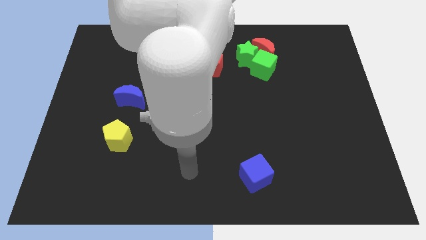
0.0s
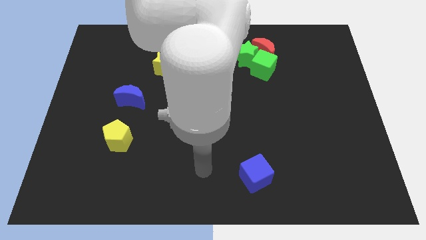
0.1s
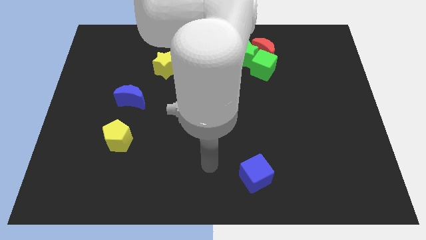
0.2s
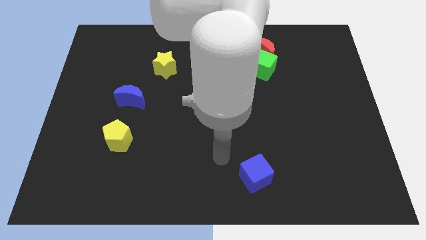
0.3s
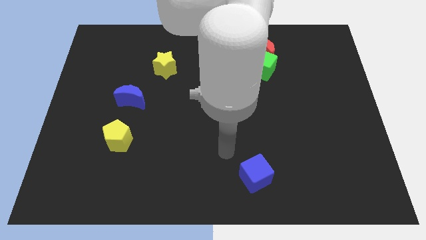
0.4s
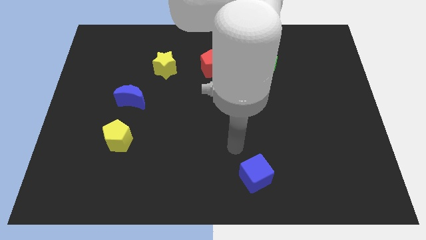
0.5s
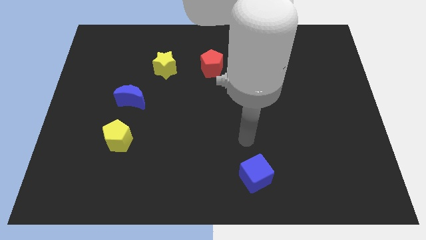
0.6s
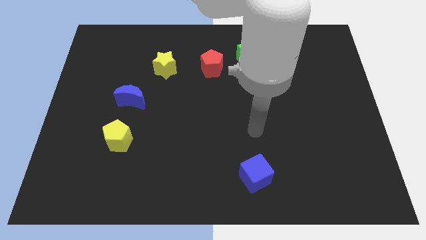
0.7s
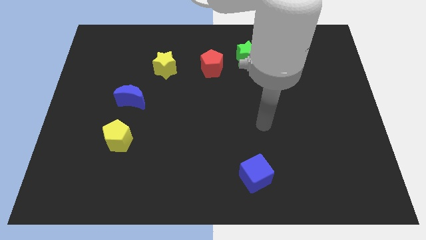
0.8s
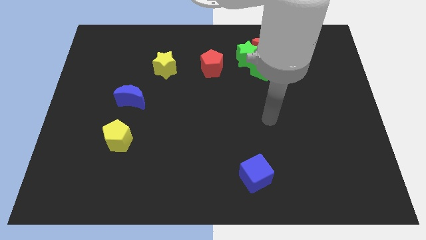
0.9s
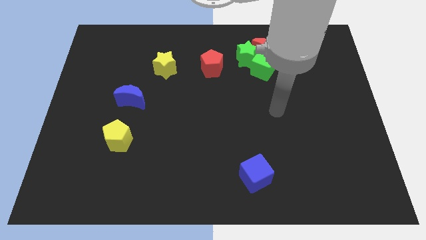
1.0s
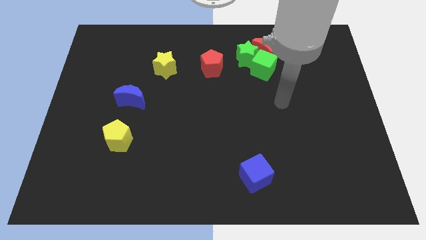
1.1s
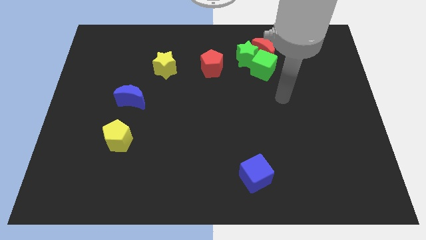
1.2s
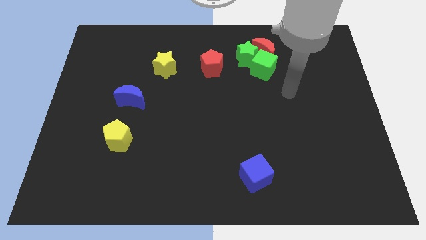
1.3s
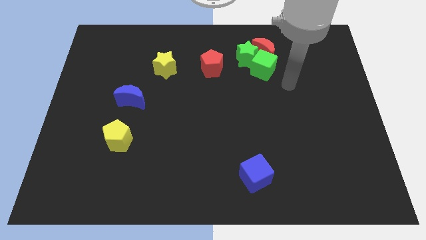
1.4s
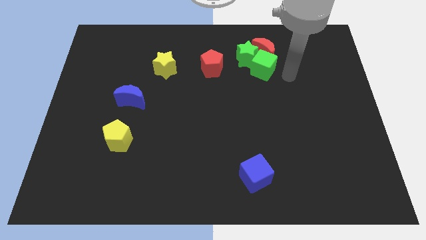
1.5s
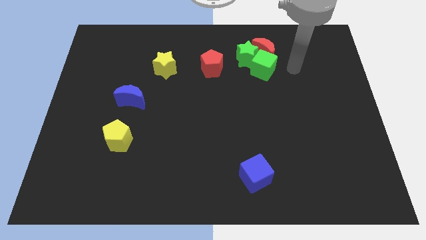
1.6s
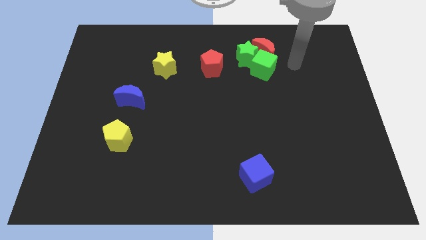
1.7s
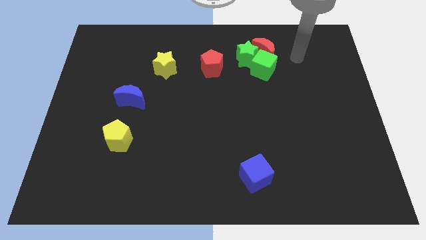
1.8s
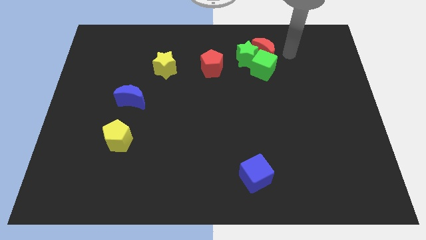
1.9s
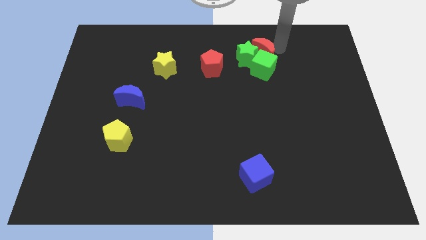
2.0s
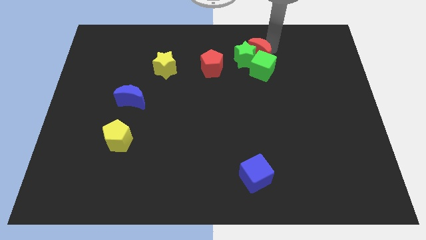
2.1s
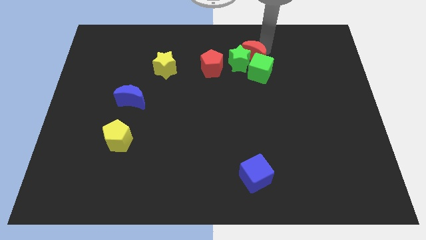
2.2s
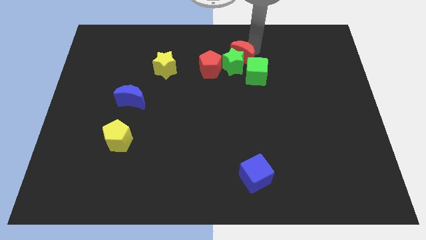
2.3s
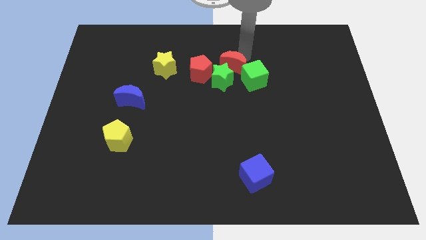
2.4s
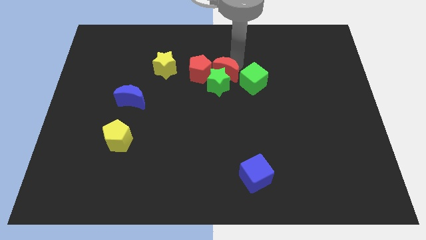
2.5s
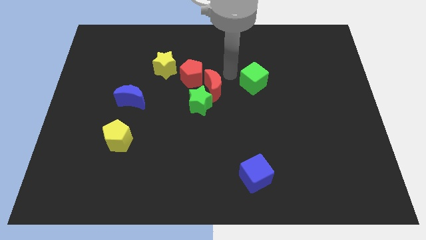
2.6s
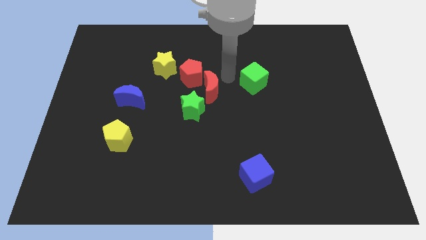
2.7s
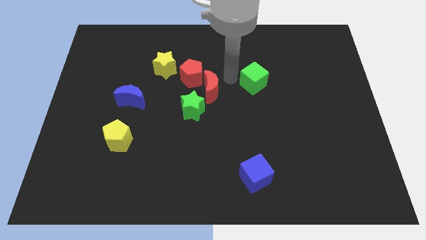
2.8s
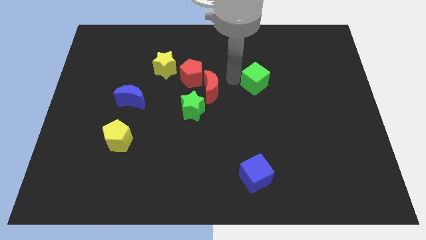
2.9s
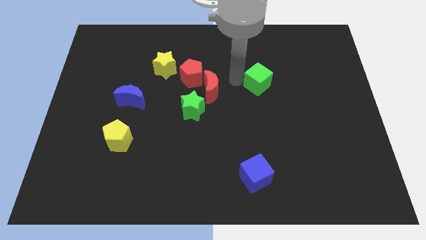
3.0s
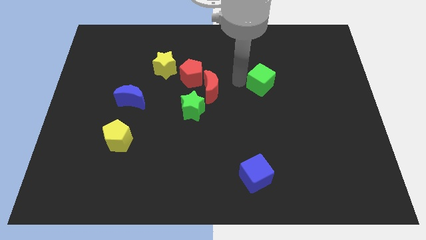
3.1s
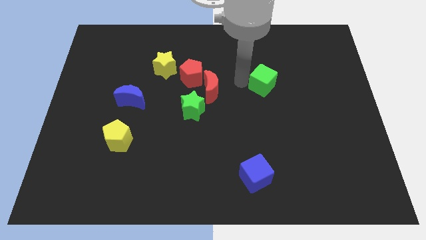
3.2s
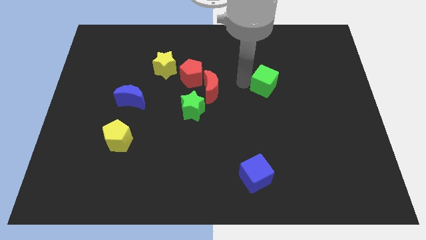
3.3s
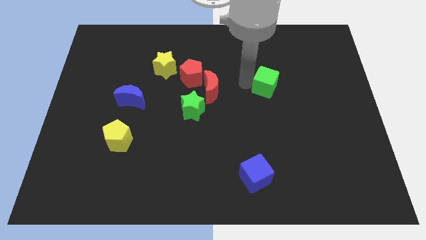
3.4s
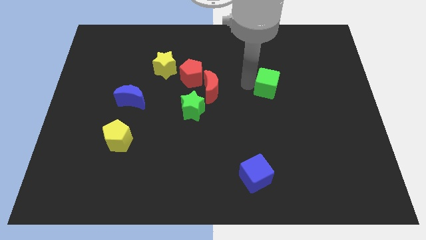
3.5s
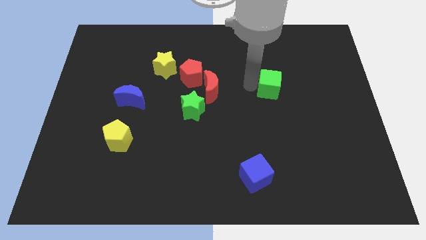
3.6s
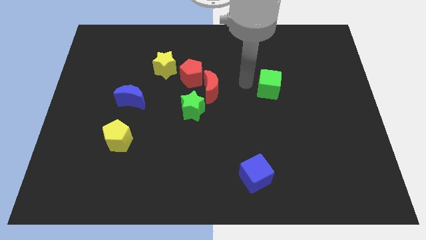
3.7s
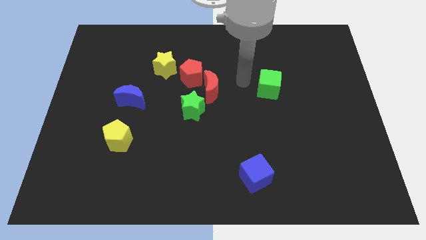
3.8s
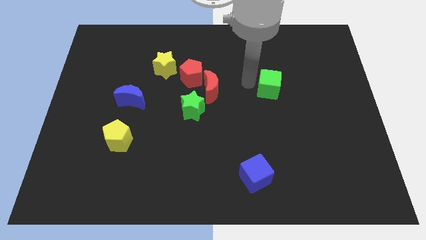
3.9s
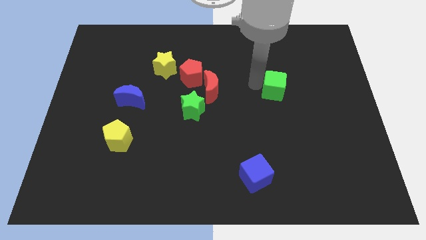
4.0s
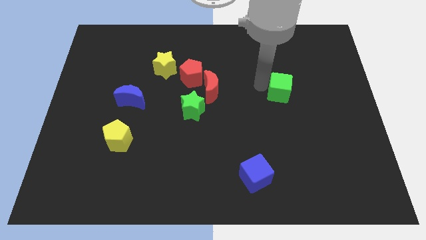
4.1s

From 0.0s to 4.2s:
slightly slide the green cube downwards and right diagonally

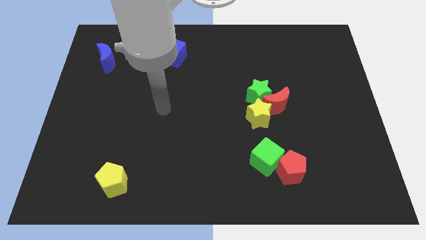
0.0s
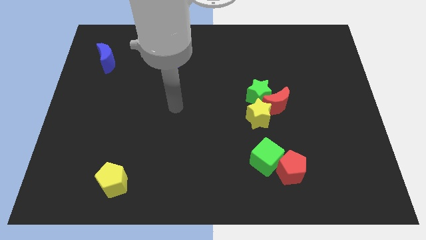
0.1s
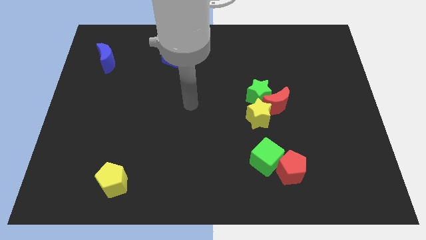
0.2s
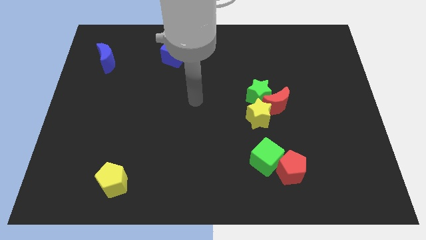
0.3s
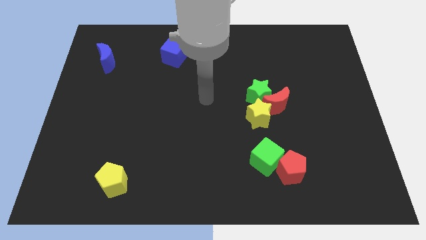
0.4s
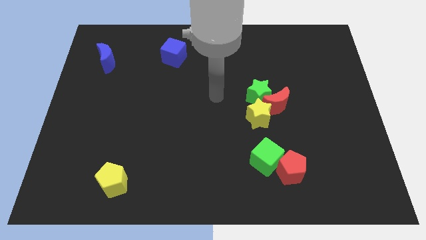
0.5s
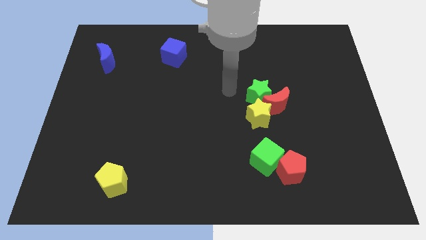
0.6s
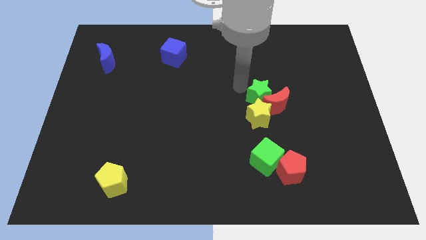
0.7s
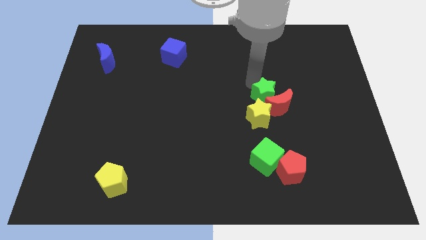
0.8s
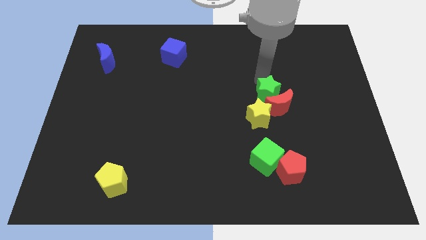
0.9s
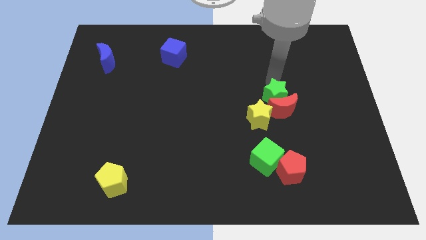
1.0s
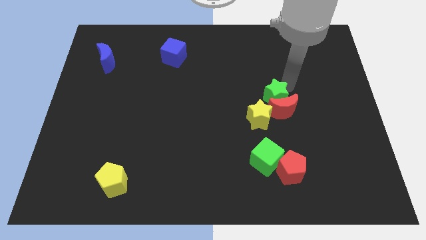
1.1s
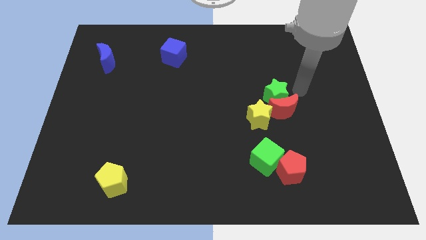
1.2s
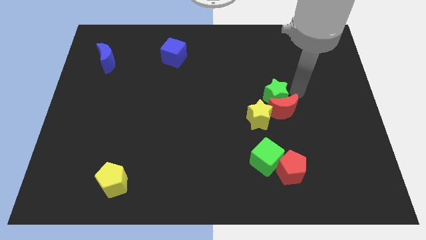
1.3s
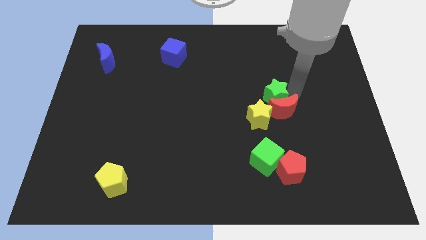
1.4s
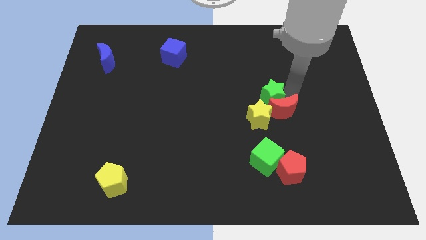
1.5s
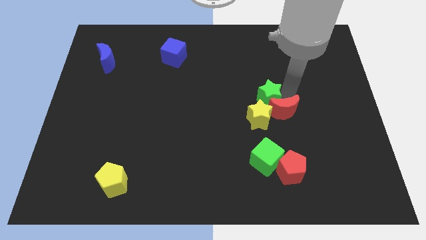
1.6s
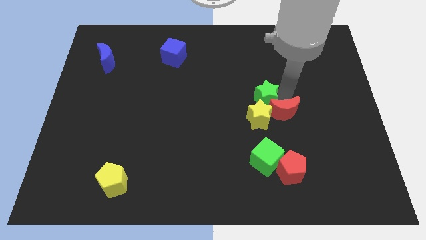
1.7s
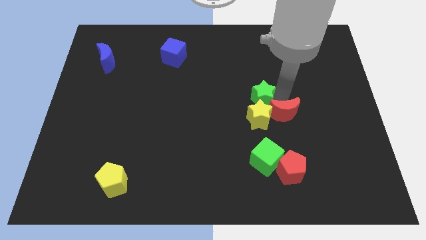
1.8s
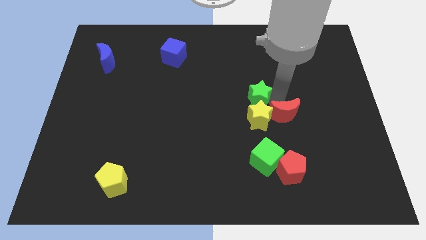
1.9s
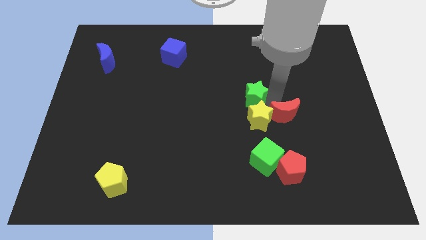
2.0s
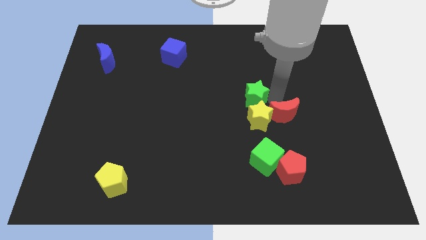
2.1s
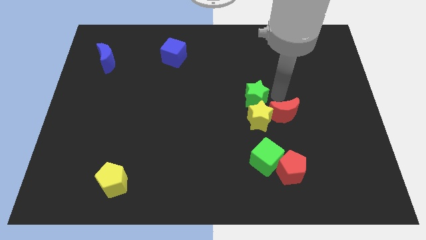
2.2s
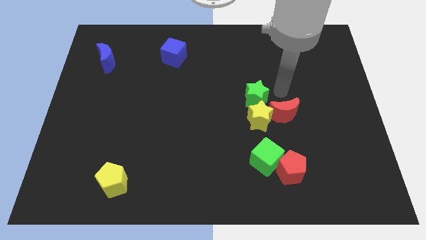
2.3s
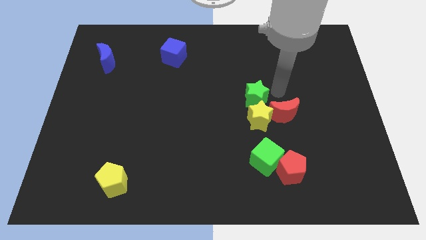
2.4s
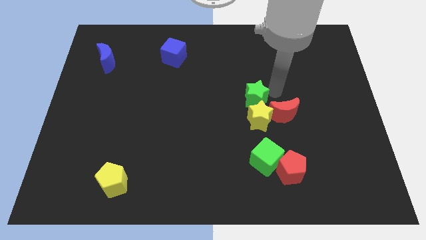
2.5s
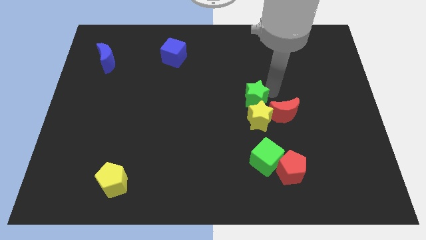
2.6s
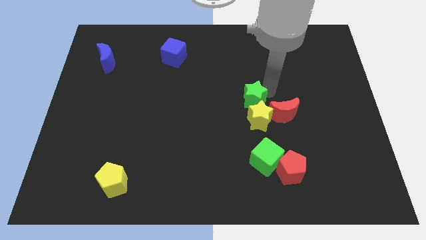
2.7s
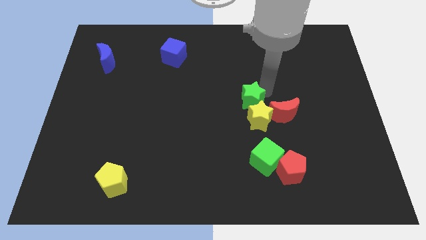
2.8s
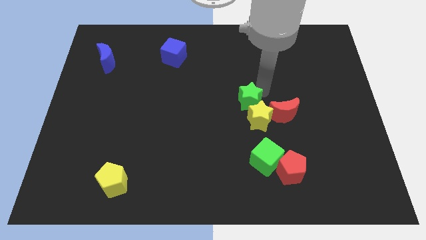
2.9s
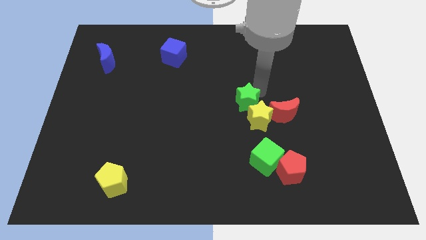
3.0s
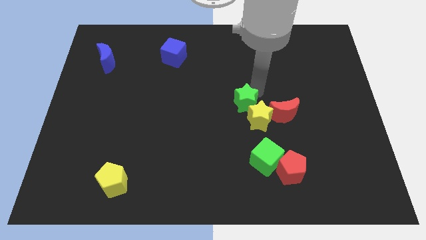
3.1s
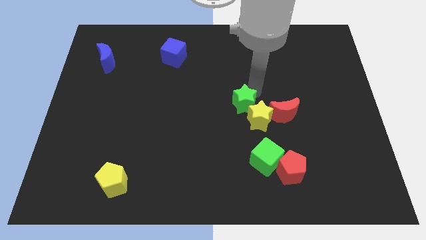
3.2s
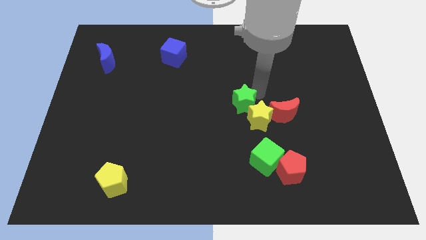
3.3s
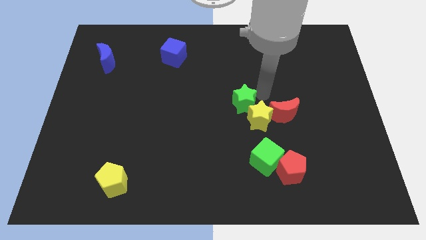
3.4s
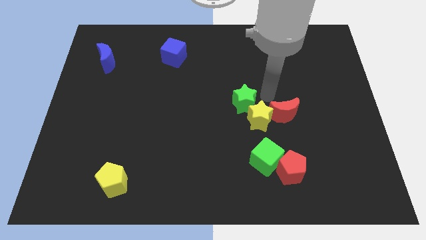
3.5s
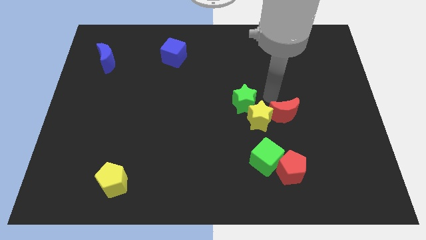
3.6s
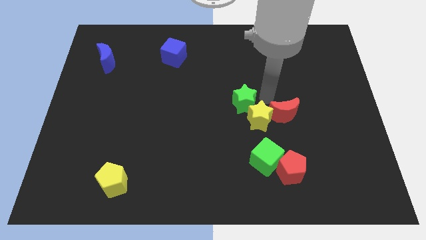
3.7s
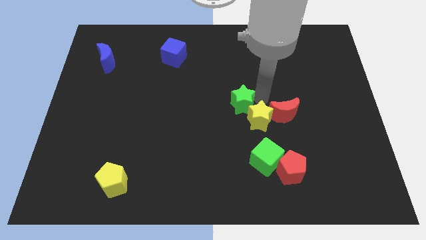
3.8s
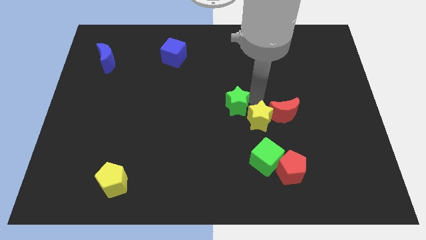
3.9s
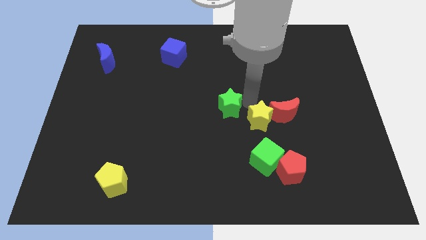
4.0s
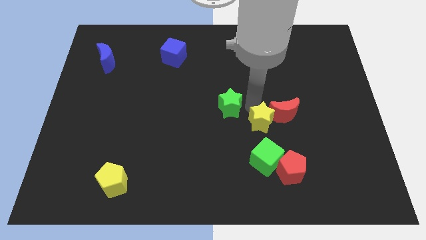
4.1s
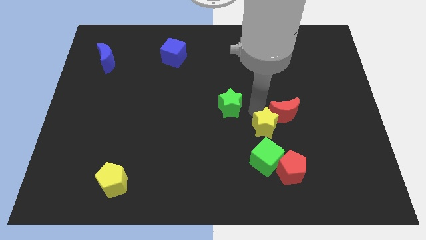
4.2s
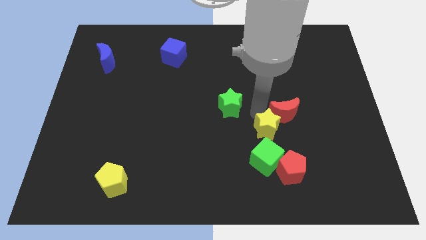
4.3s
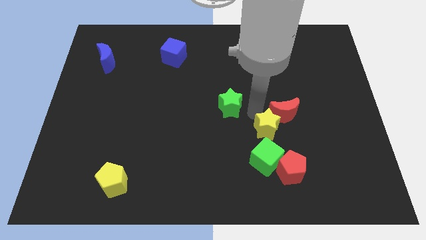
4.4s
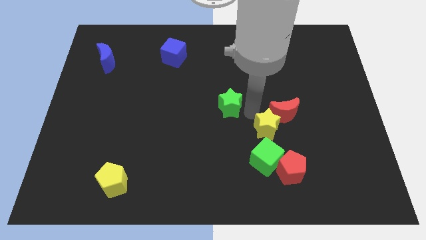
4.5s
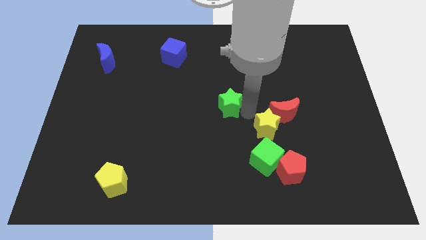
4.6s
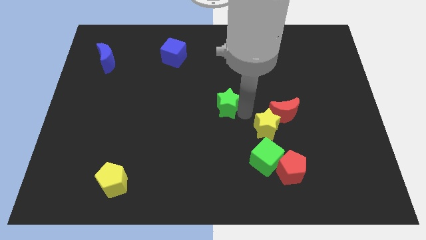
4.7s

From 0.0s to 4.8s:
slide the green star somewhat left
